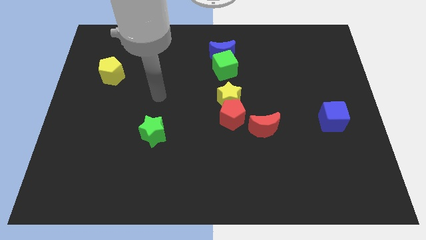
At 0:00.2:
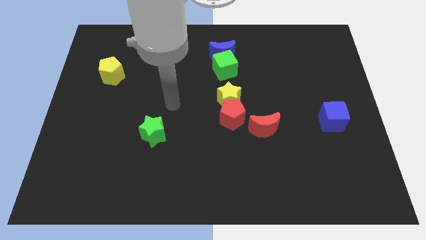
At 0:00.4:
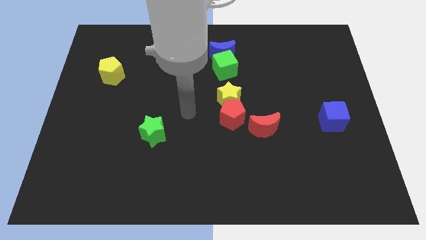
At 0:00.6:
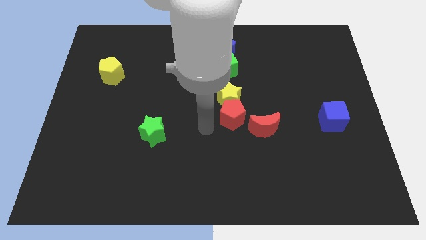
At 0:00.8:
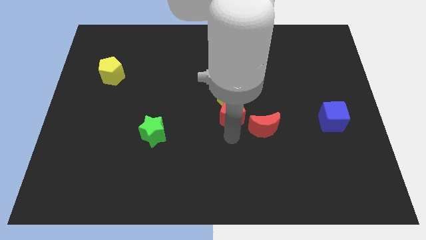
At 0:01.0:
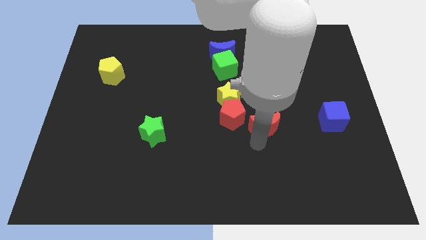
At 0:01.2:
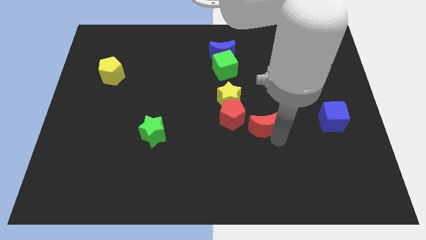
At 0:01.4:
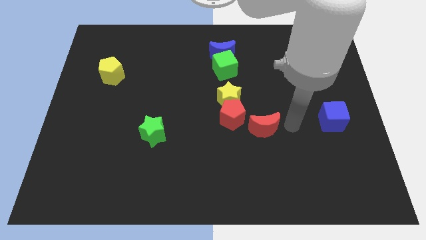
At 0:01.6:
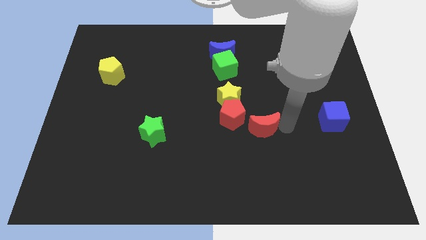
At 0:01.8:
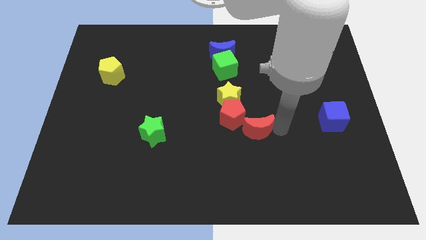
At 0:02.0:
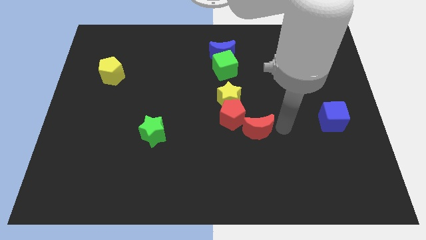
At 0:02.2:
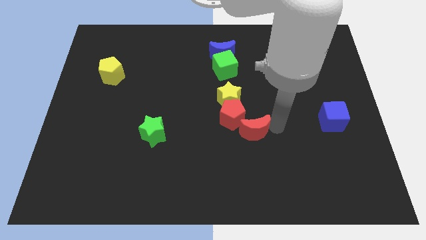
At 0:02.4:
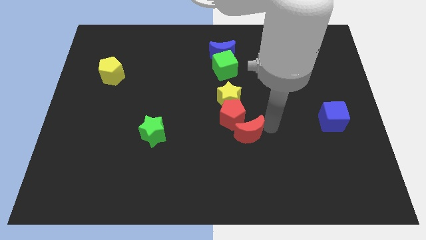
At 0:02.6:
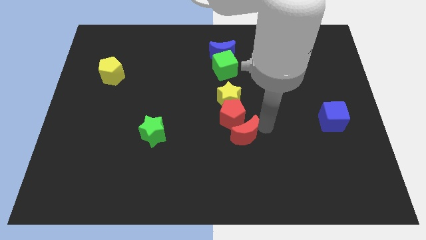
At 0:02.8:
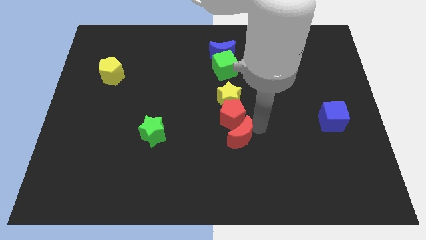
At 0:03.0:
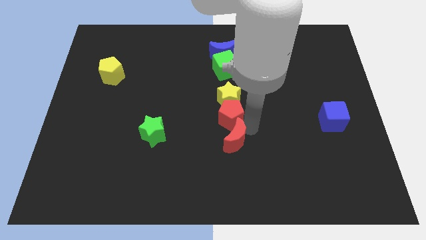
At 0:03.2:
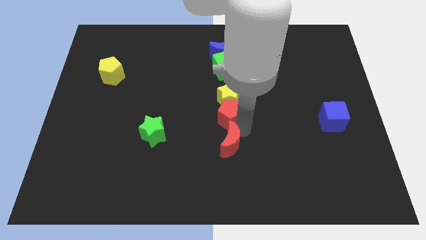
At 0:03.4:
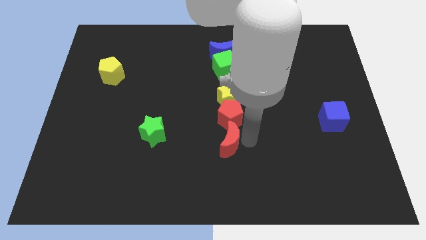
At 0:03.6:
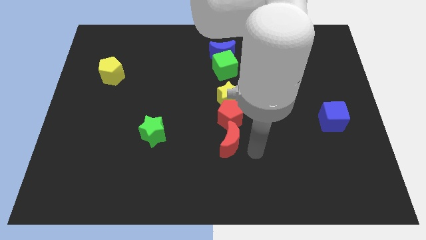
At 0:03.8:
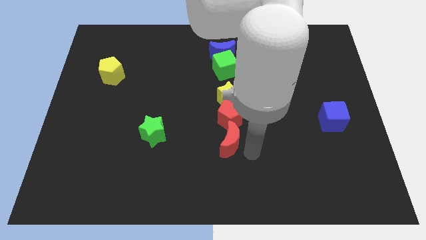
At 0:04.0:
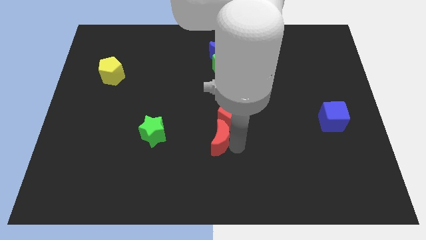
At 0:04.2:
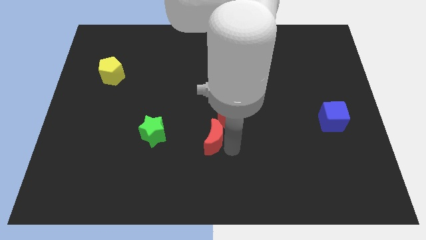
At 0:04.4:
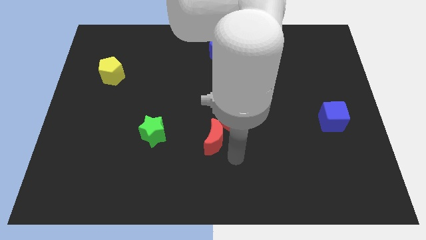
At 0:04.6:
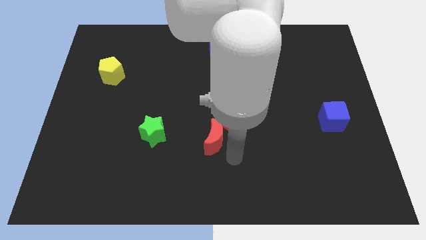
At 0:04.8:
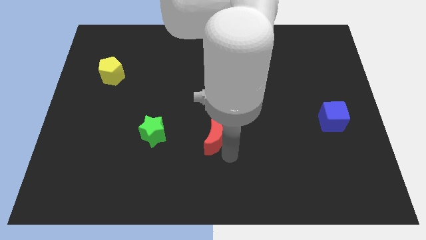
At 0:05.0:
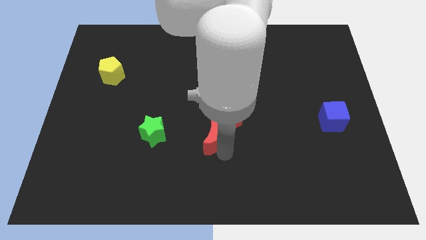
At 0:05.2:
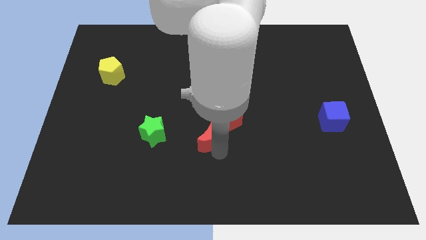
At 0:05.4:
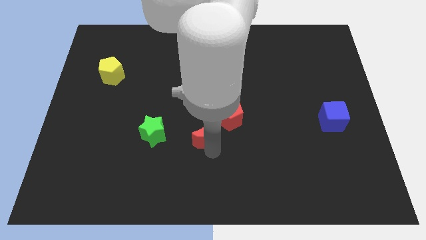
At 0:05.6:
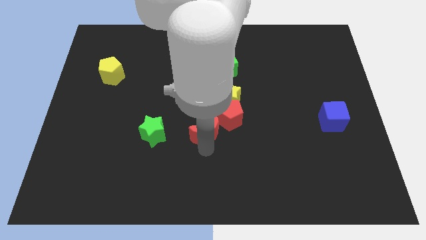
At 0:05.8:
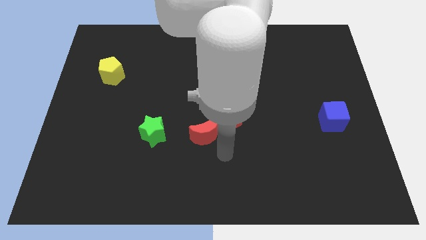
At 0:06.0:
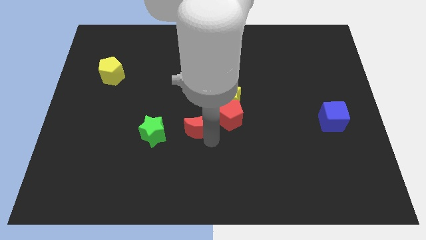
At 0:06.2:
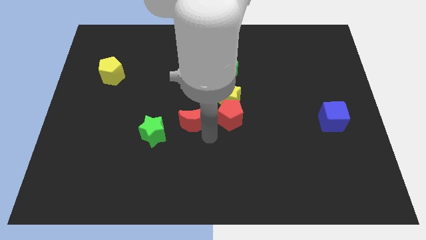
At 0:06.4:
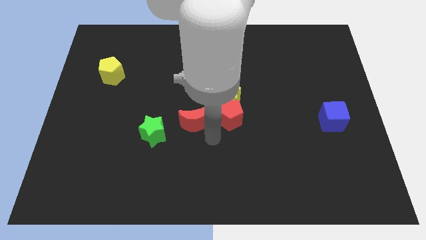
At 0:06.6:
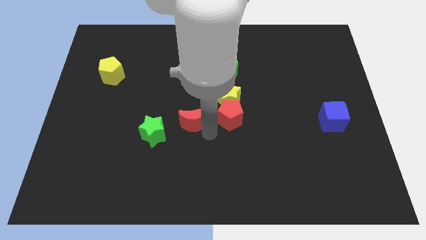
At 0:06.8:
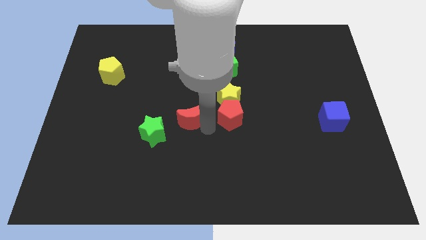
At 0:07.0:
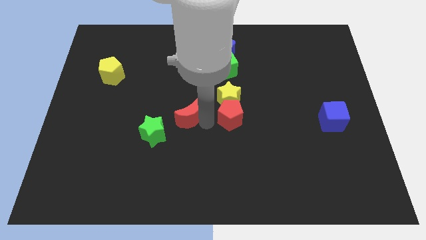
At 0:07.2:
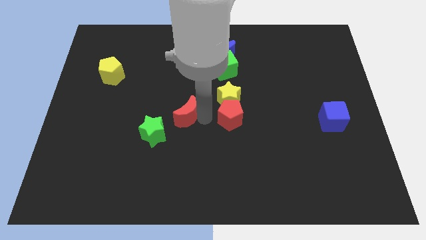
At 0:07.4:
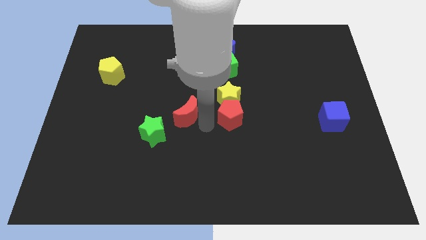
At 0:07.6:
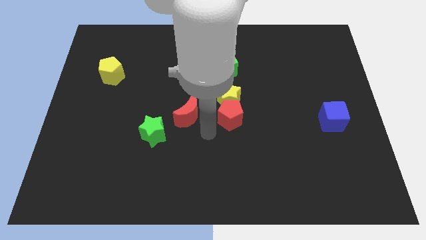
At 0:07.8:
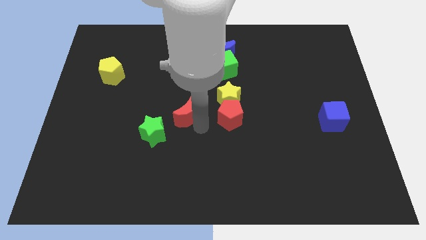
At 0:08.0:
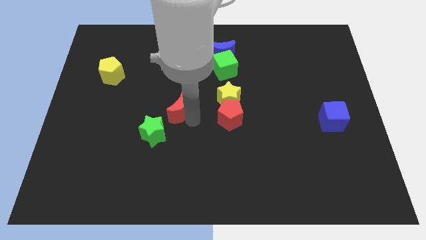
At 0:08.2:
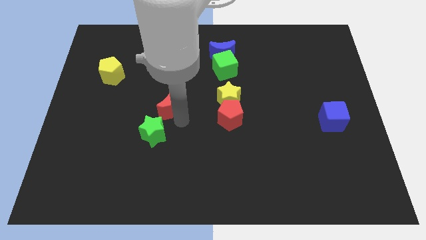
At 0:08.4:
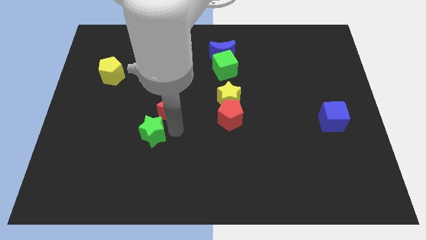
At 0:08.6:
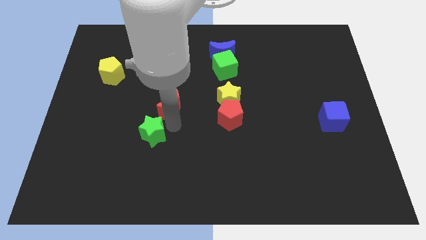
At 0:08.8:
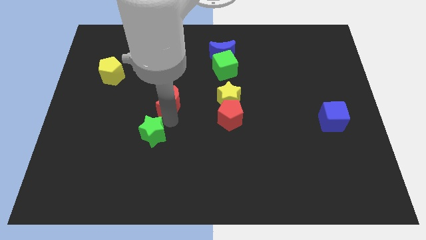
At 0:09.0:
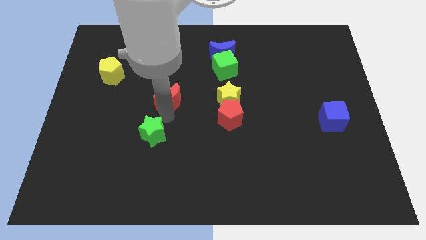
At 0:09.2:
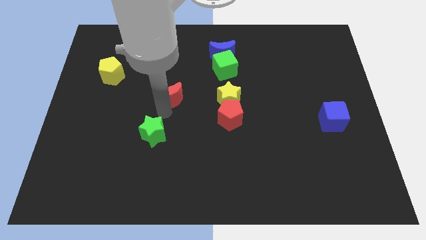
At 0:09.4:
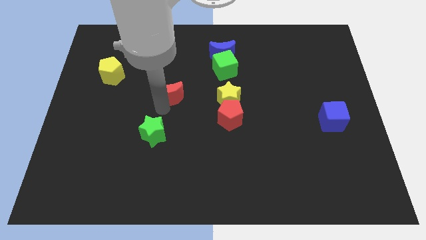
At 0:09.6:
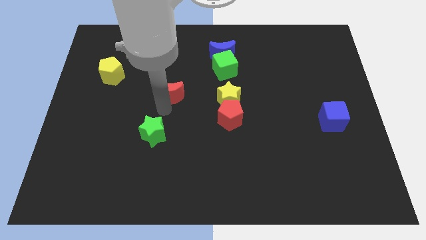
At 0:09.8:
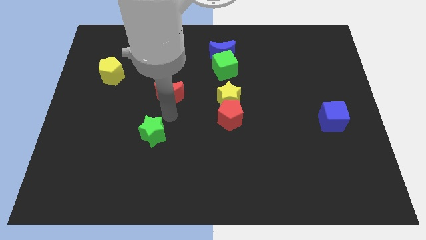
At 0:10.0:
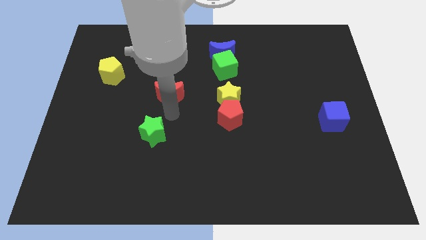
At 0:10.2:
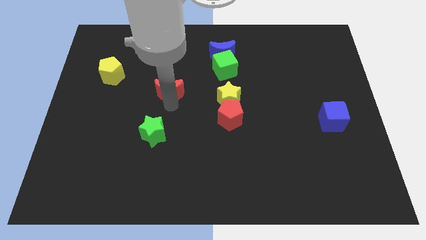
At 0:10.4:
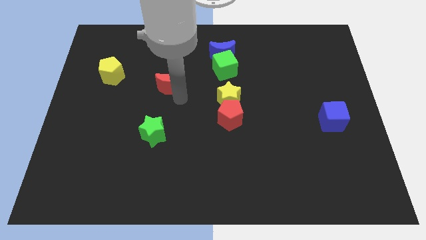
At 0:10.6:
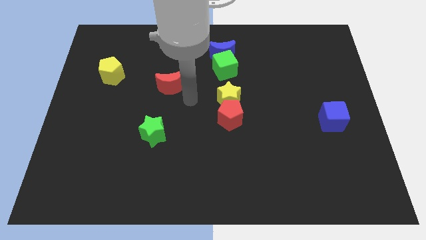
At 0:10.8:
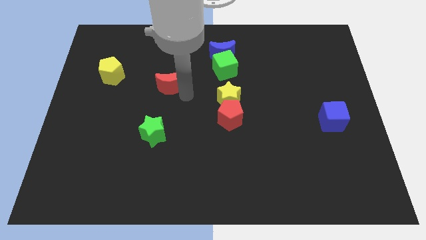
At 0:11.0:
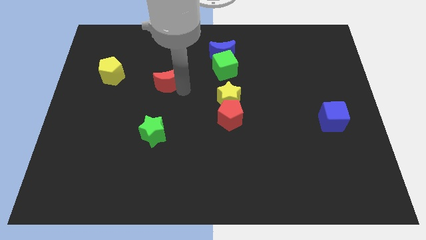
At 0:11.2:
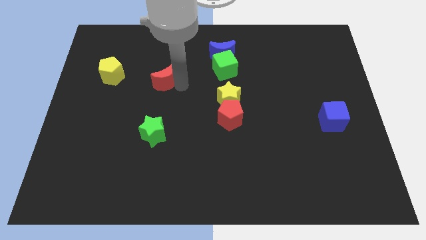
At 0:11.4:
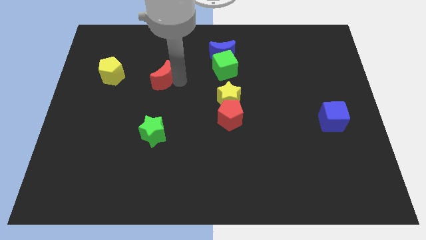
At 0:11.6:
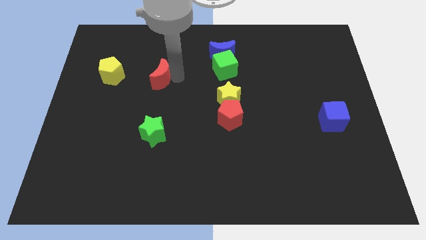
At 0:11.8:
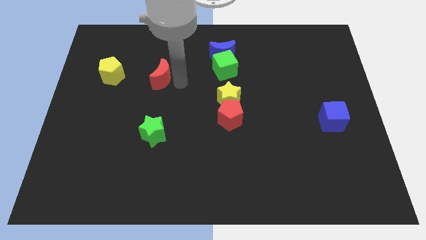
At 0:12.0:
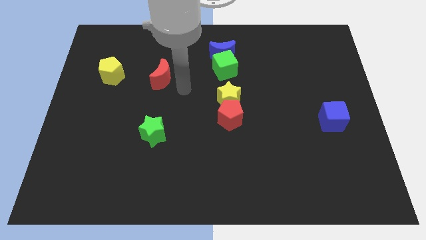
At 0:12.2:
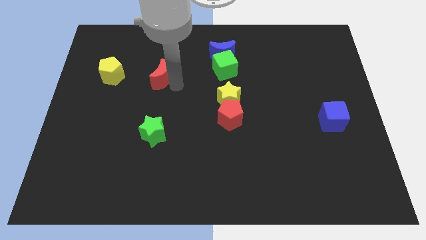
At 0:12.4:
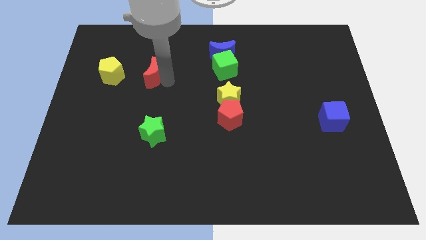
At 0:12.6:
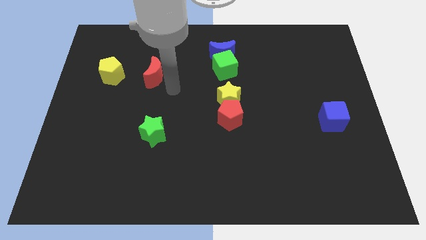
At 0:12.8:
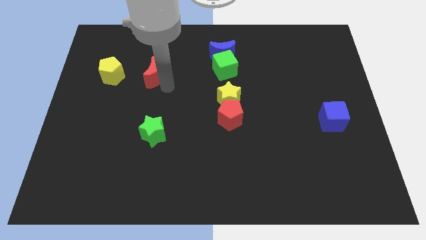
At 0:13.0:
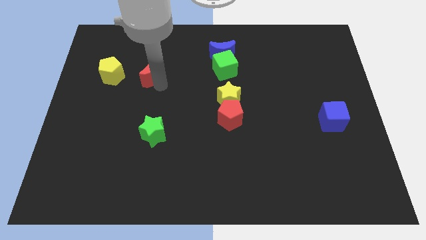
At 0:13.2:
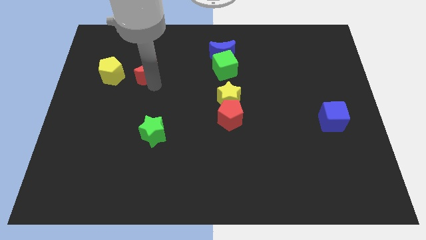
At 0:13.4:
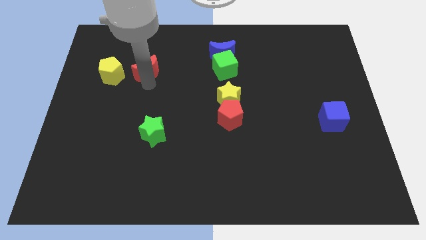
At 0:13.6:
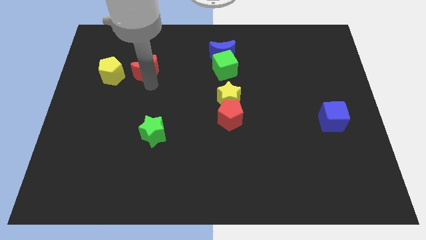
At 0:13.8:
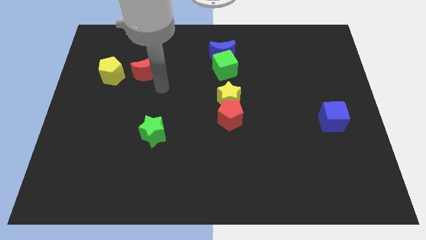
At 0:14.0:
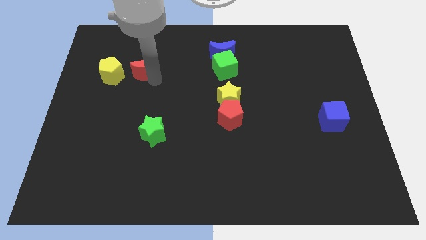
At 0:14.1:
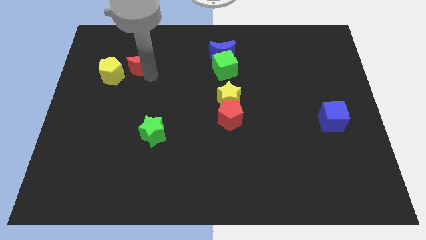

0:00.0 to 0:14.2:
put the red moon to the top right of the yellow pentagon
